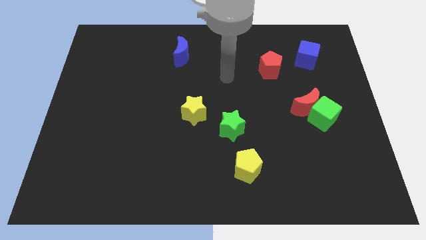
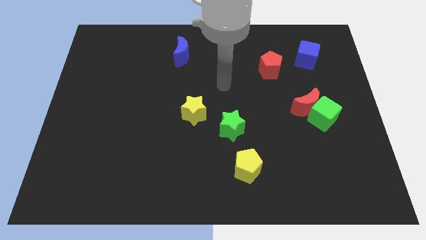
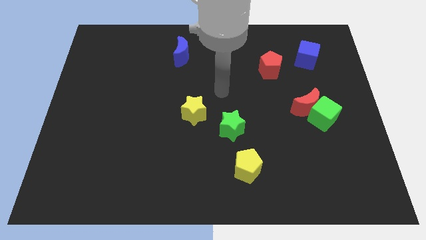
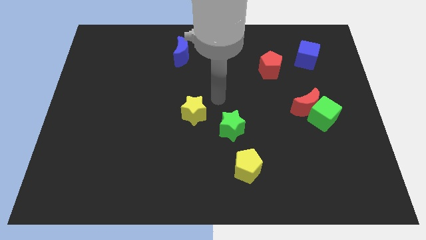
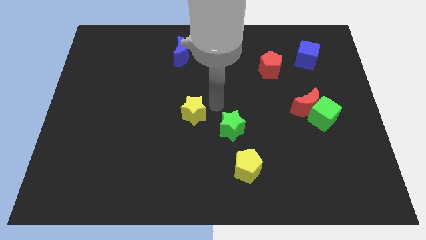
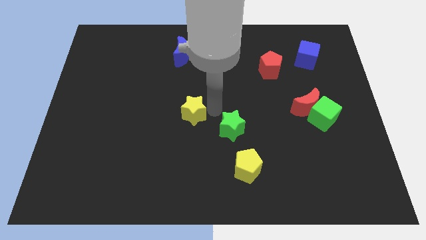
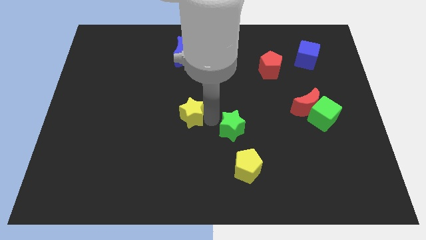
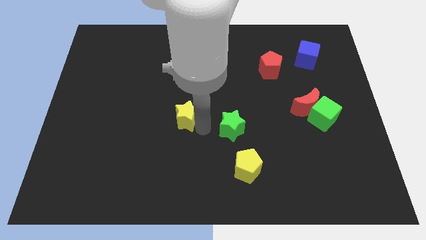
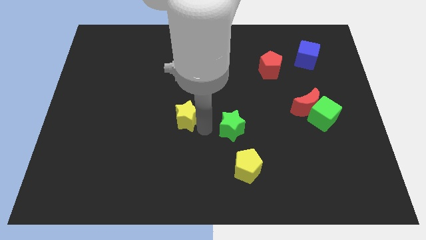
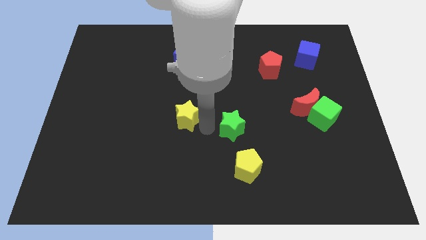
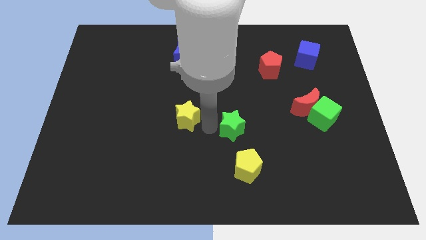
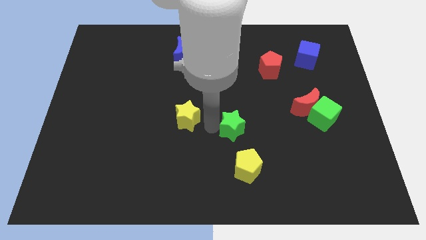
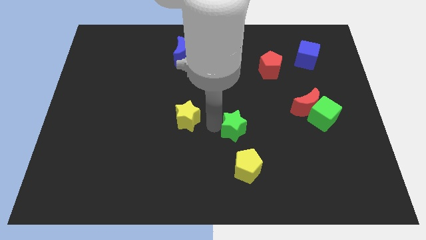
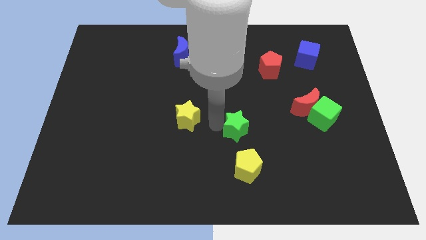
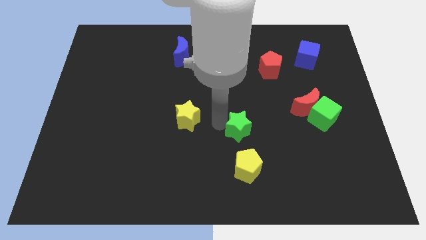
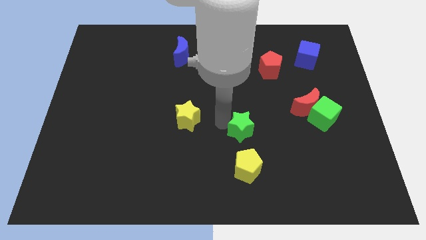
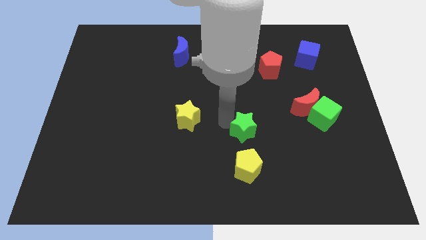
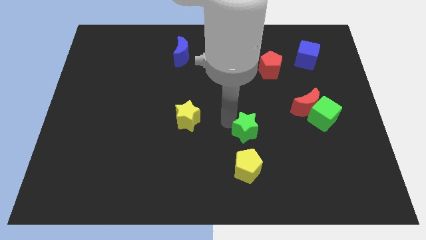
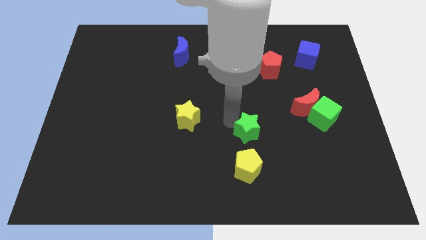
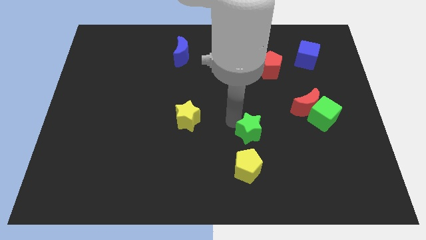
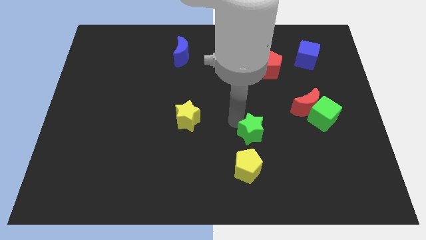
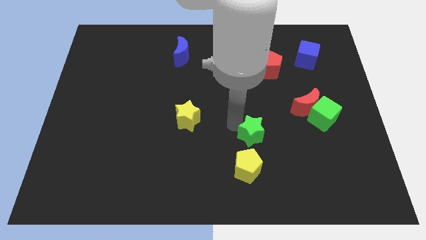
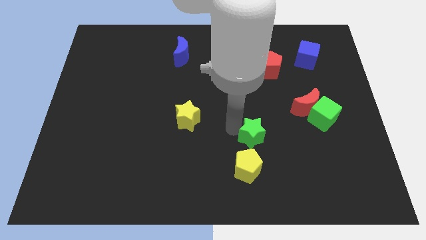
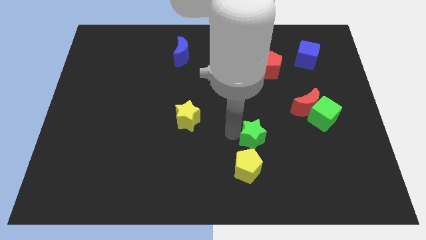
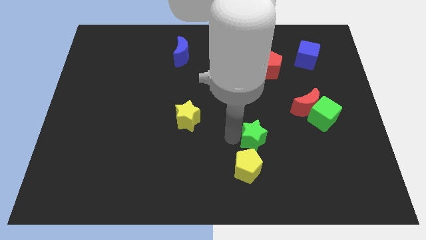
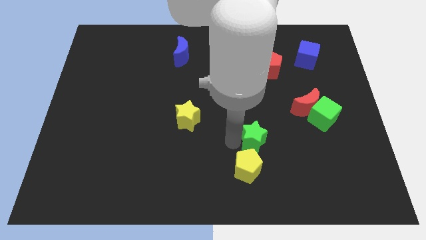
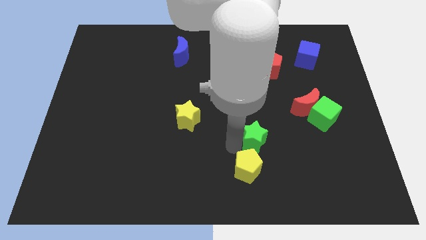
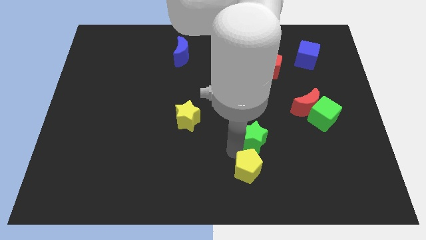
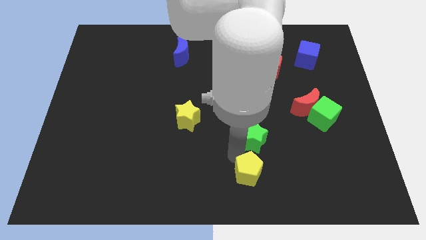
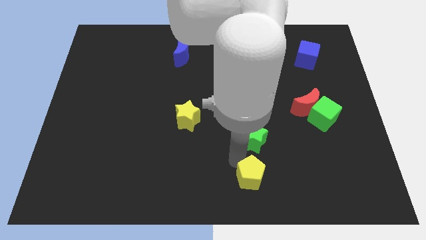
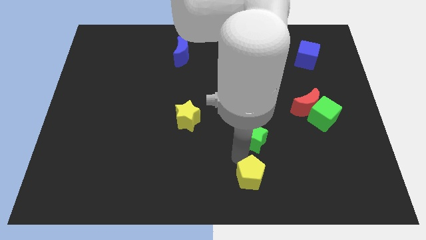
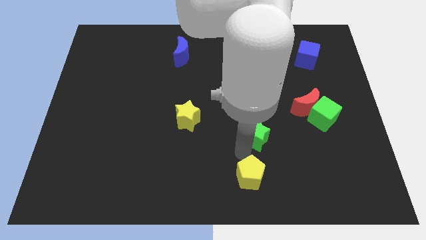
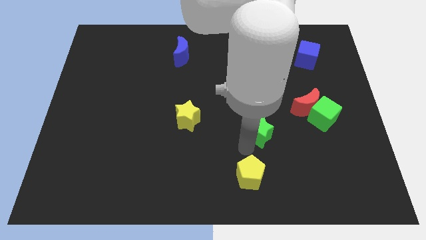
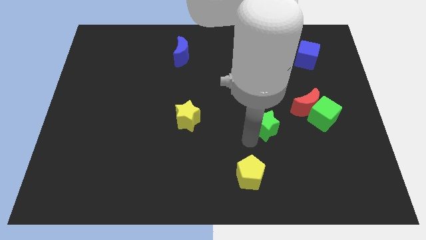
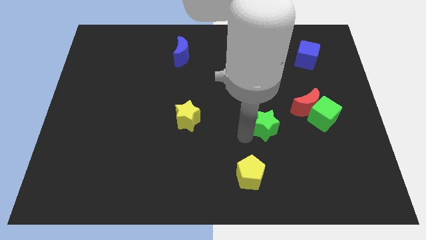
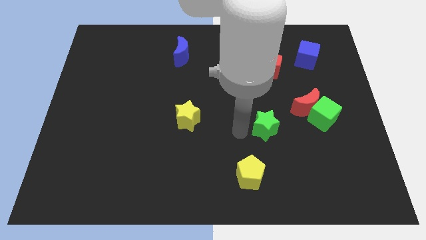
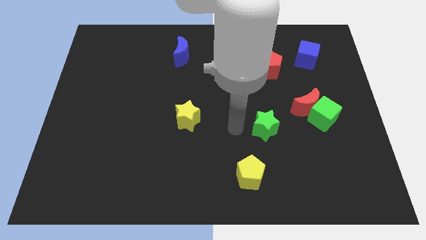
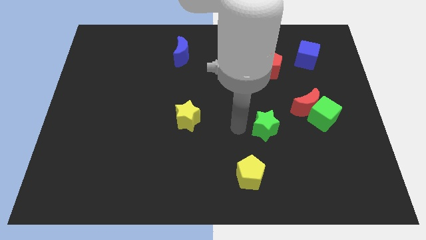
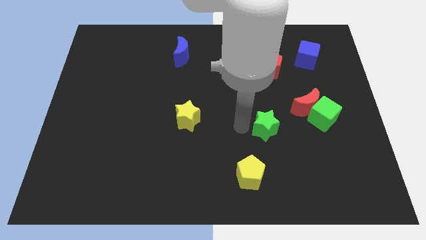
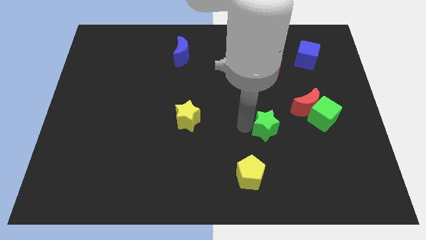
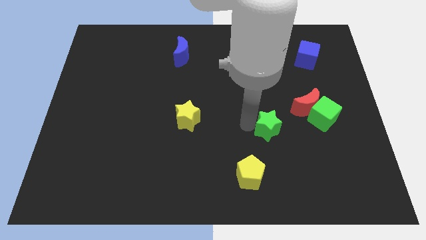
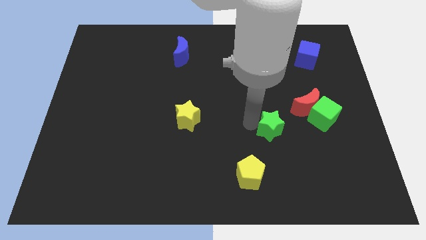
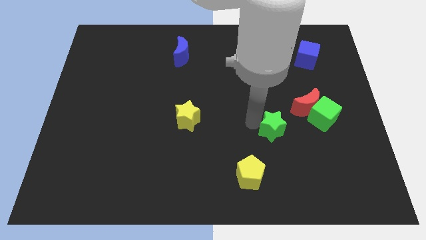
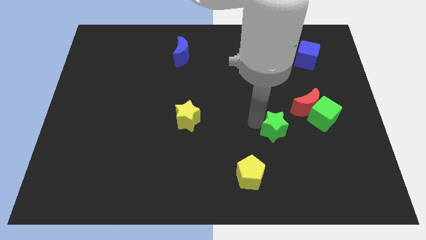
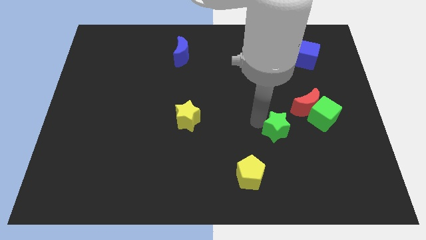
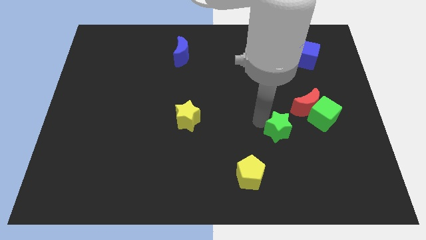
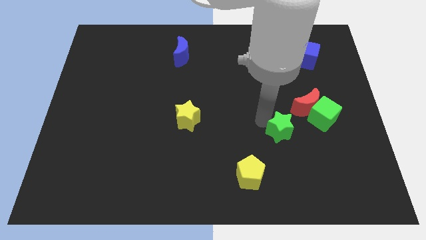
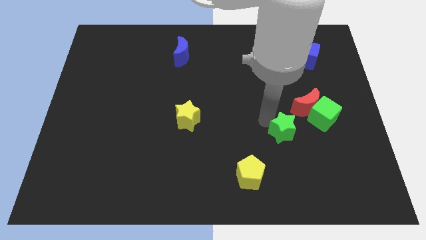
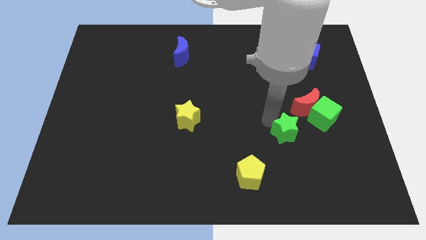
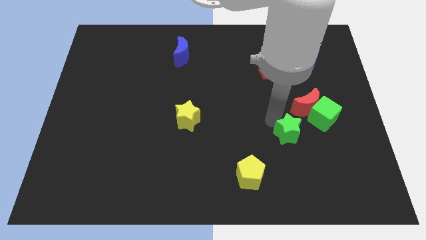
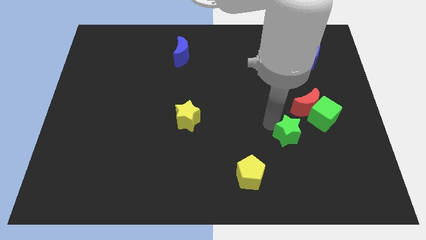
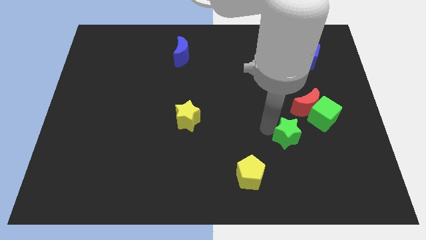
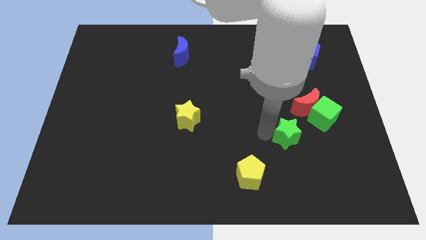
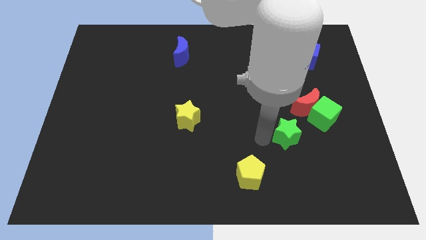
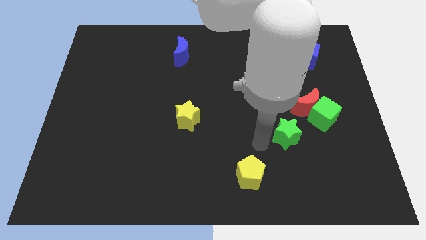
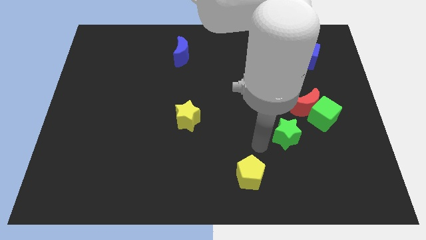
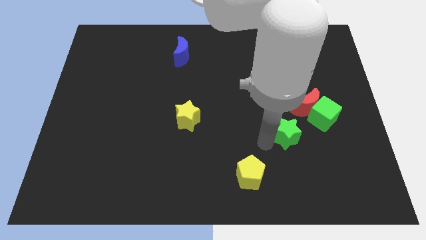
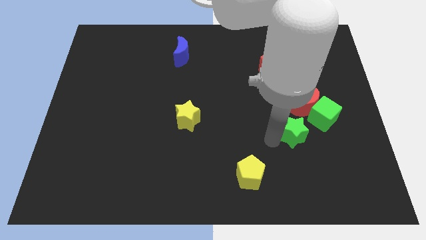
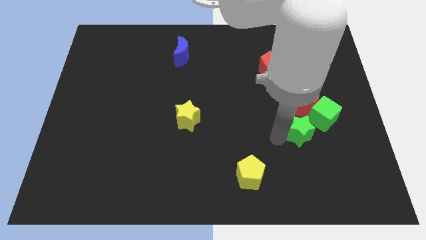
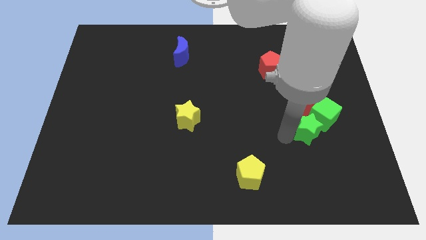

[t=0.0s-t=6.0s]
slide the green star next to the green cube
